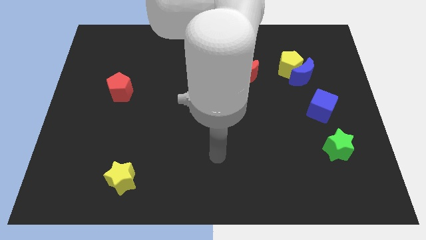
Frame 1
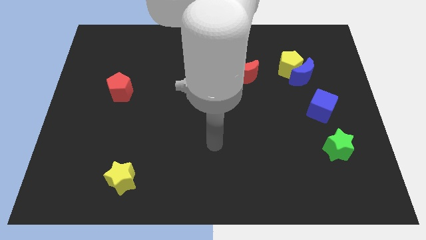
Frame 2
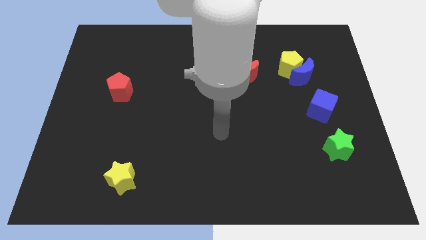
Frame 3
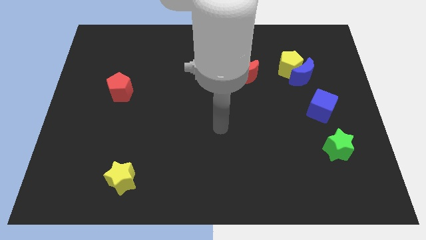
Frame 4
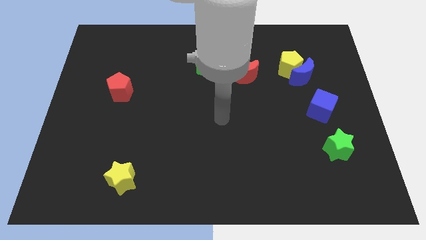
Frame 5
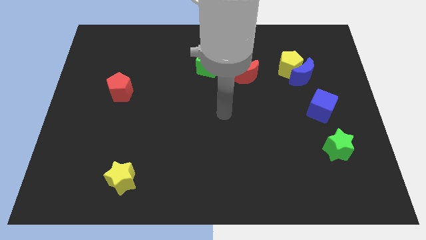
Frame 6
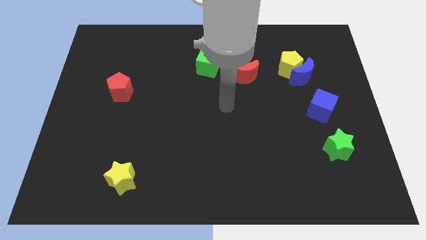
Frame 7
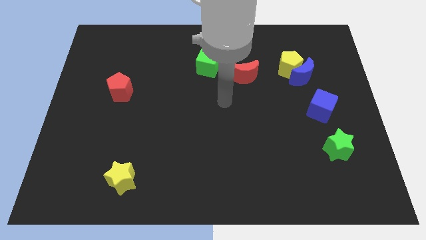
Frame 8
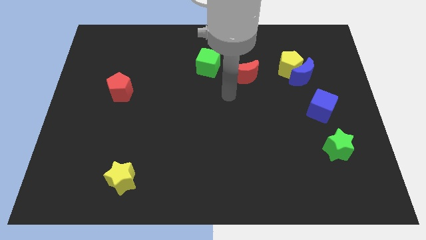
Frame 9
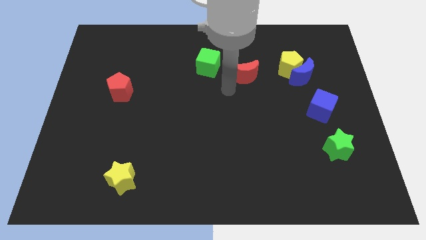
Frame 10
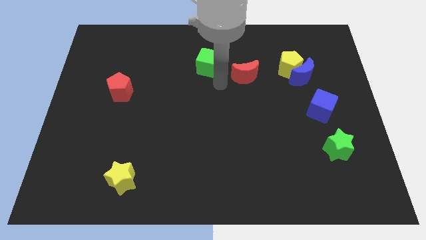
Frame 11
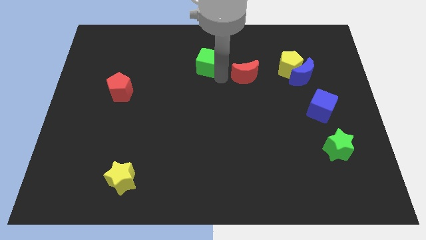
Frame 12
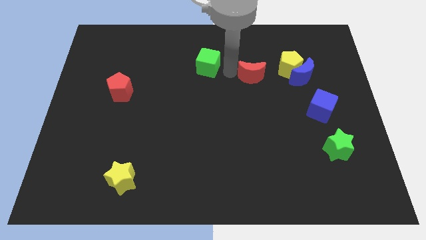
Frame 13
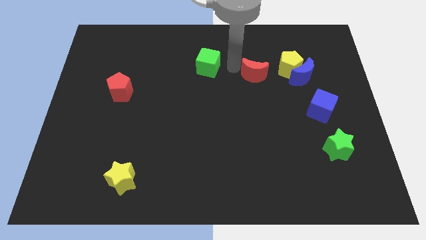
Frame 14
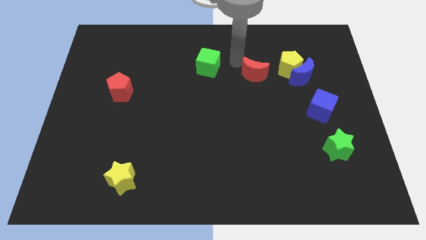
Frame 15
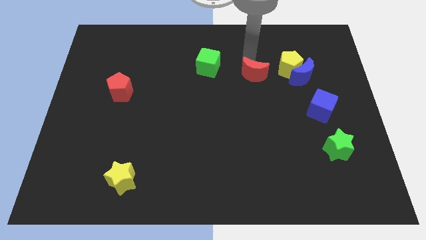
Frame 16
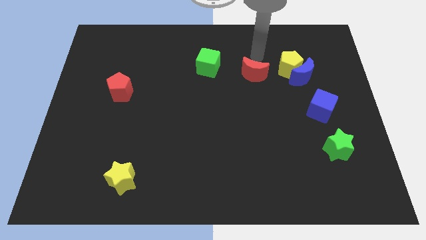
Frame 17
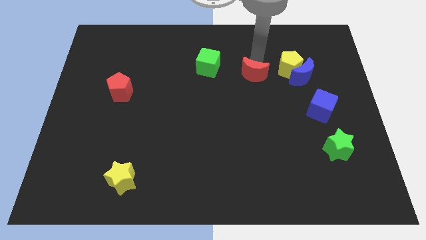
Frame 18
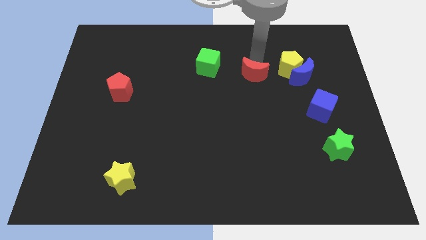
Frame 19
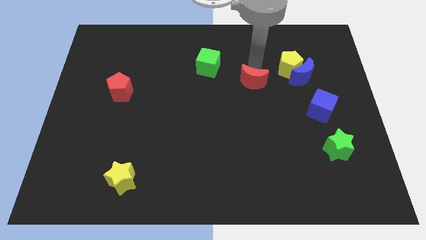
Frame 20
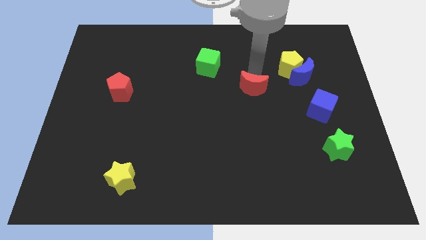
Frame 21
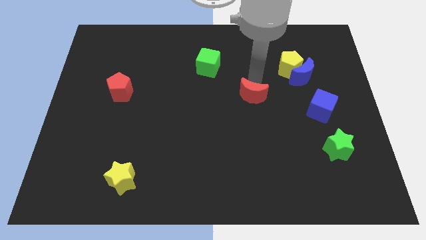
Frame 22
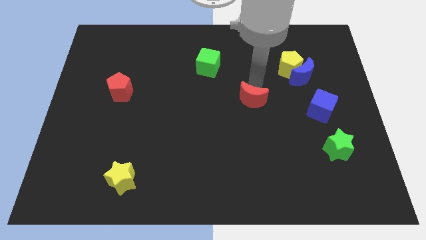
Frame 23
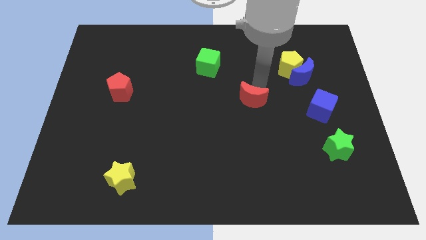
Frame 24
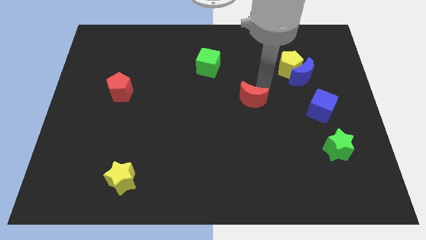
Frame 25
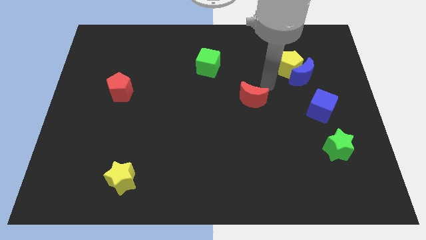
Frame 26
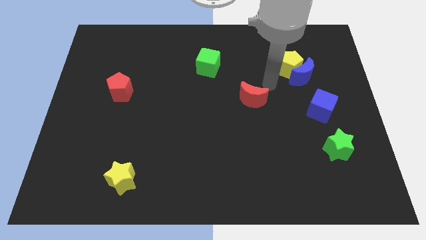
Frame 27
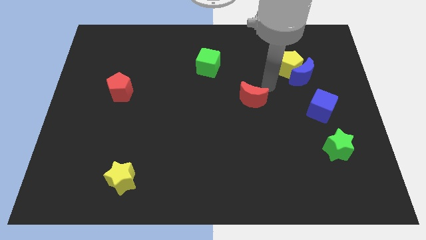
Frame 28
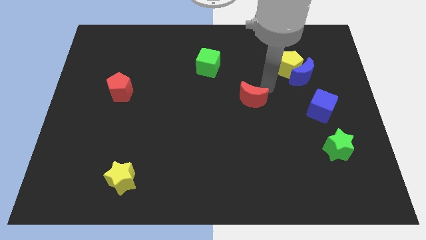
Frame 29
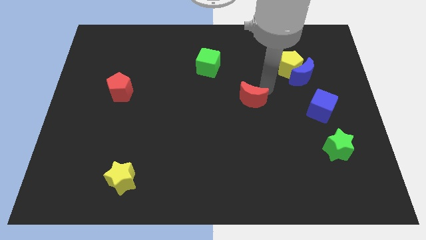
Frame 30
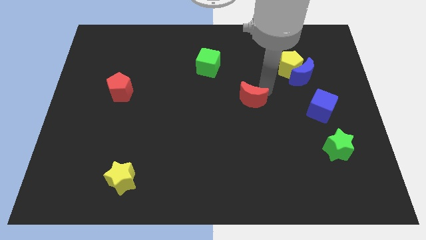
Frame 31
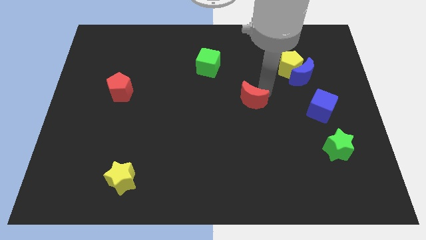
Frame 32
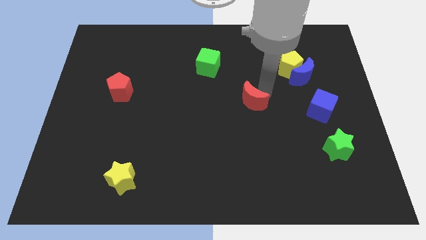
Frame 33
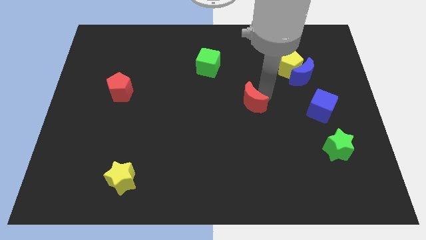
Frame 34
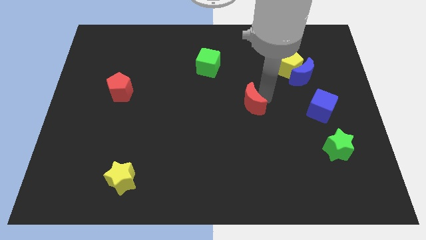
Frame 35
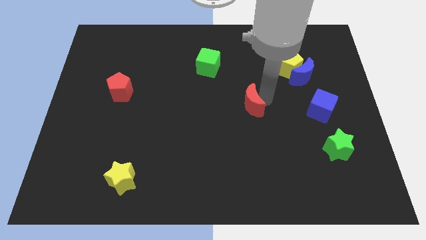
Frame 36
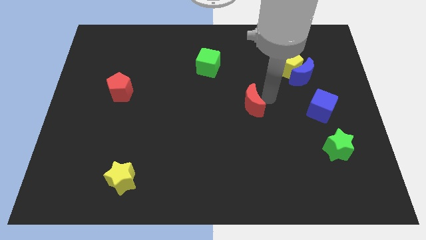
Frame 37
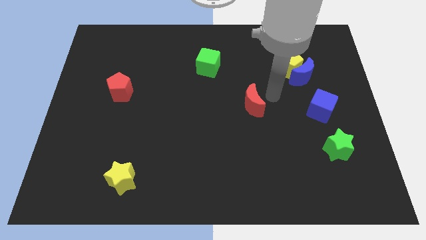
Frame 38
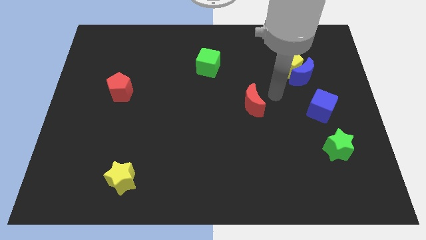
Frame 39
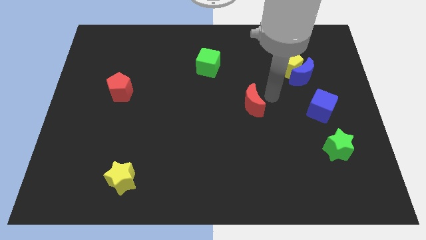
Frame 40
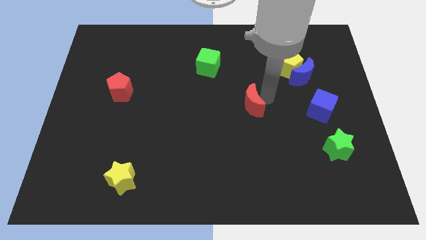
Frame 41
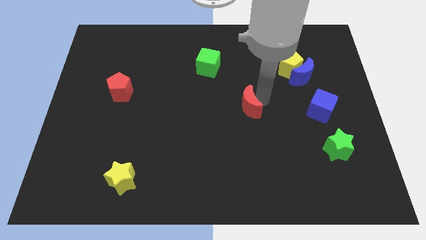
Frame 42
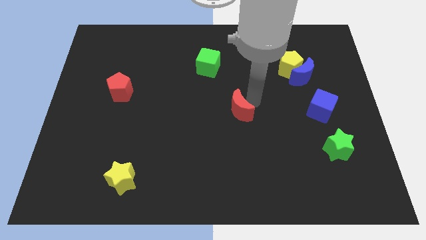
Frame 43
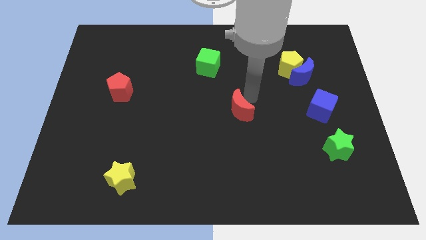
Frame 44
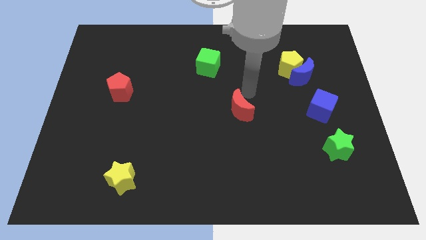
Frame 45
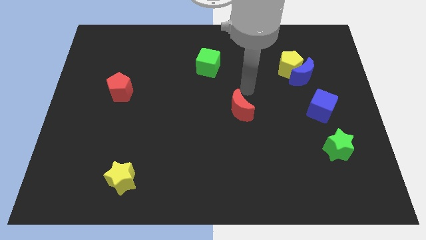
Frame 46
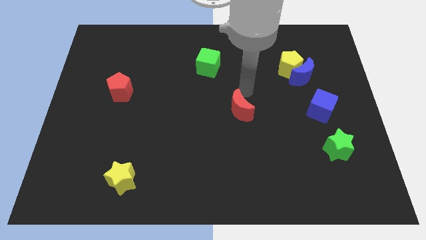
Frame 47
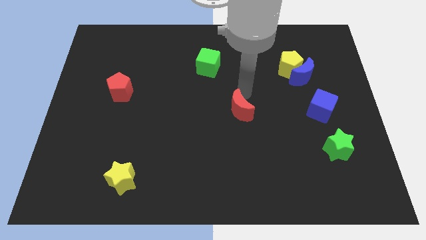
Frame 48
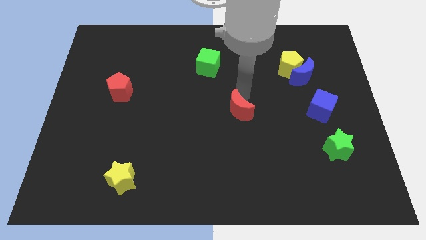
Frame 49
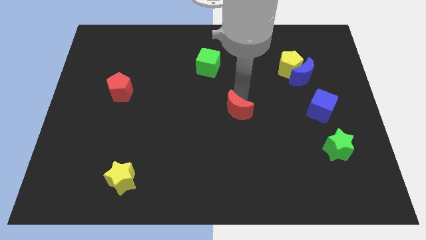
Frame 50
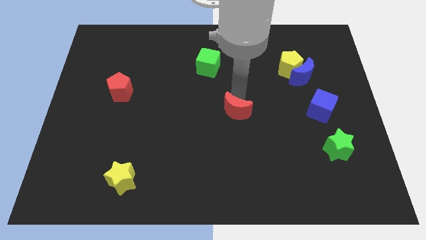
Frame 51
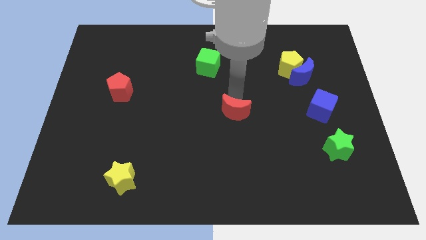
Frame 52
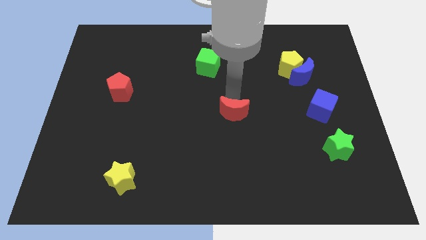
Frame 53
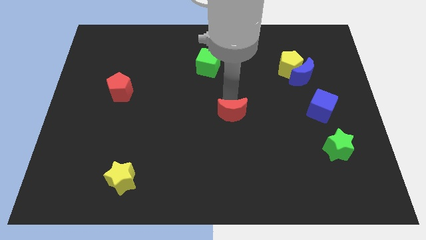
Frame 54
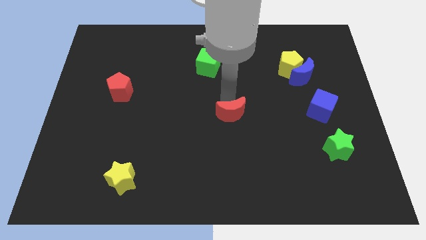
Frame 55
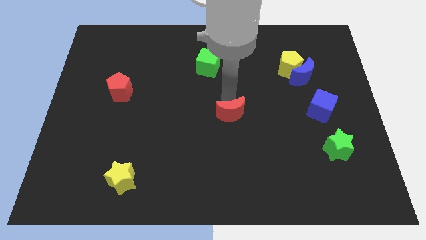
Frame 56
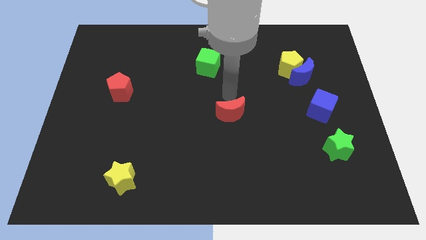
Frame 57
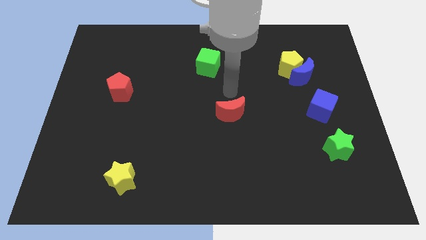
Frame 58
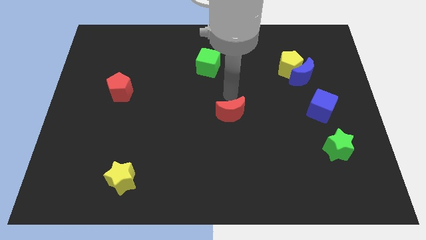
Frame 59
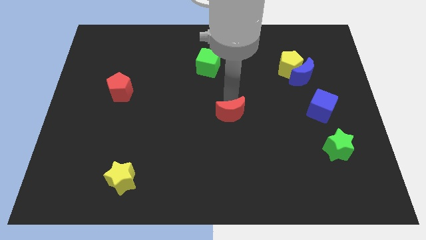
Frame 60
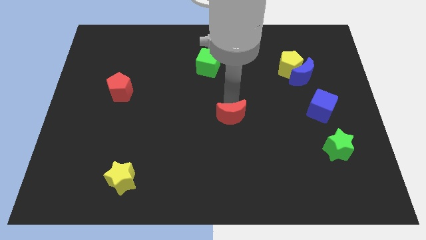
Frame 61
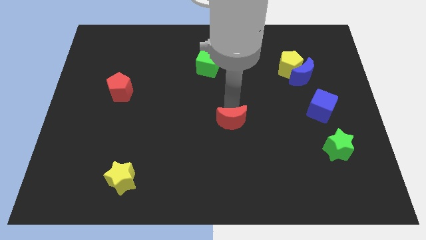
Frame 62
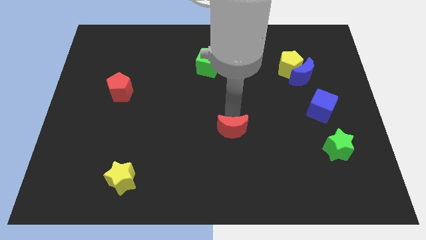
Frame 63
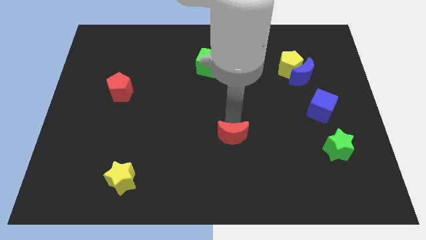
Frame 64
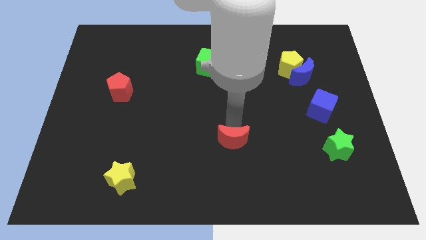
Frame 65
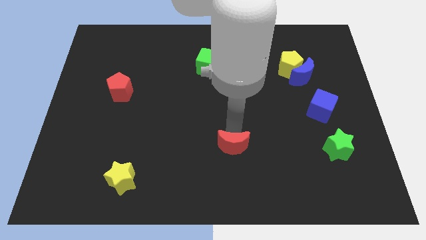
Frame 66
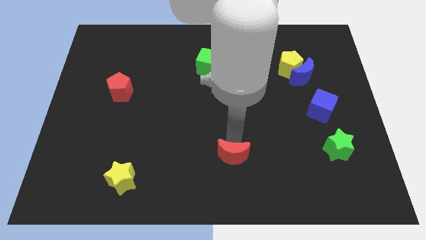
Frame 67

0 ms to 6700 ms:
put the red moon to the bottom side
